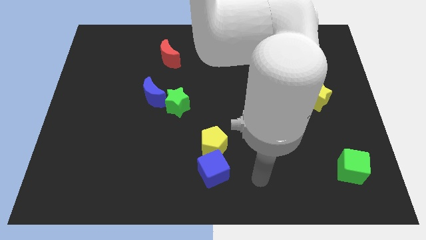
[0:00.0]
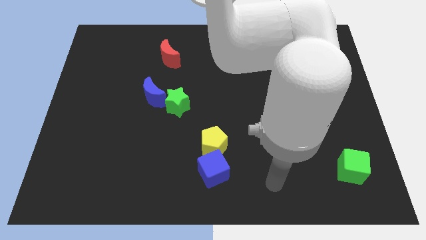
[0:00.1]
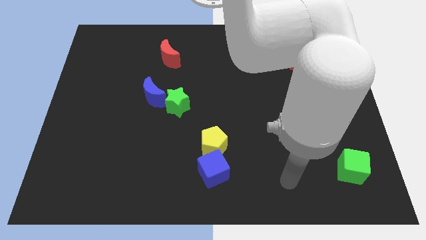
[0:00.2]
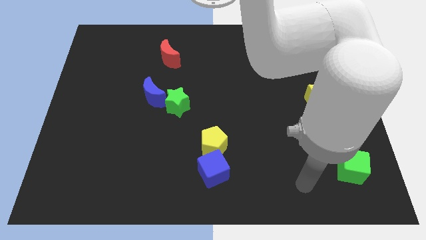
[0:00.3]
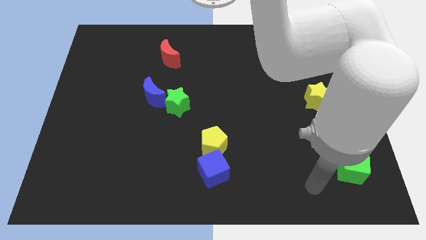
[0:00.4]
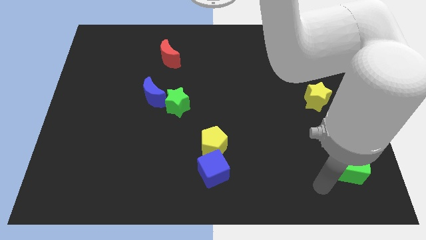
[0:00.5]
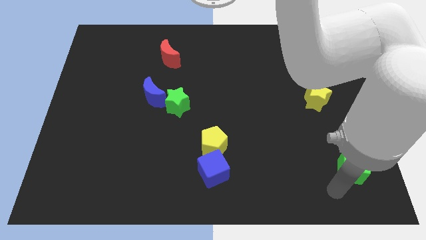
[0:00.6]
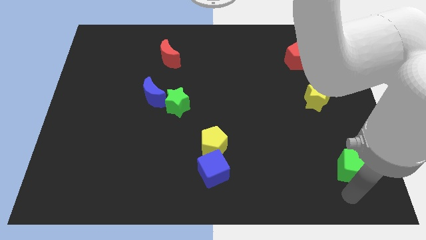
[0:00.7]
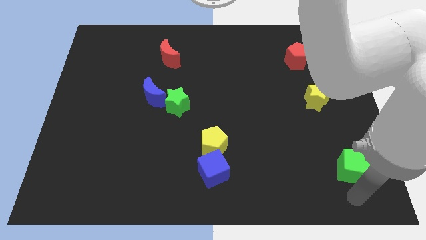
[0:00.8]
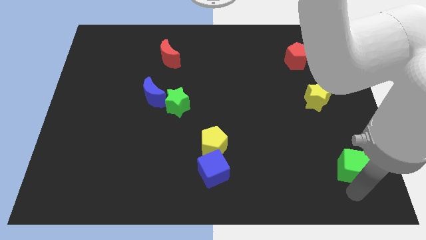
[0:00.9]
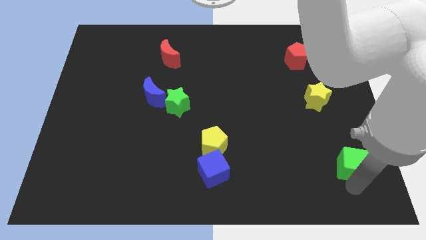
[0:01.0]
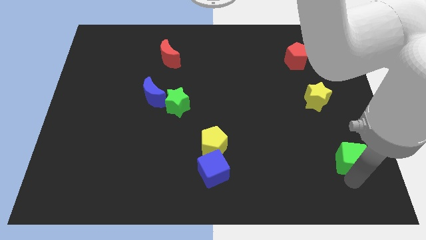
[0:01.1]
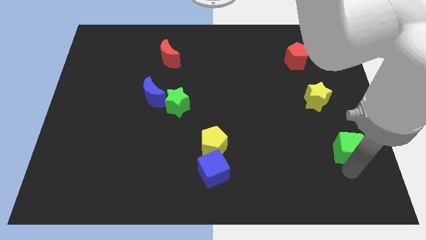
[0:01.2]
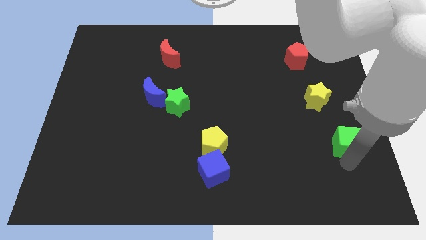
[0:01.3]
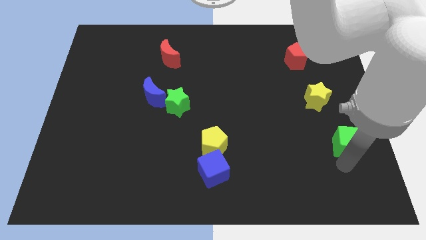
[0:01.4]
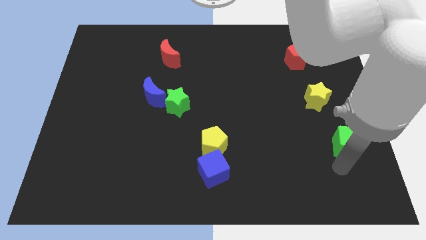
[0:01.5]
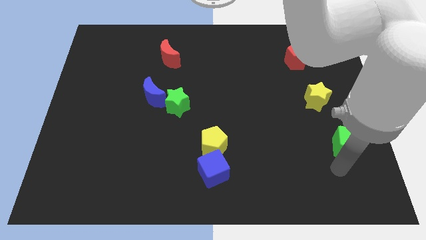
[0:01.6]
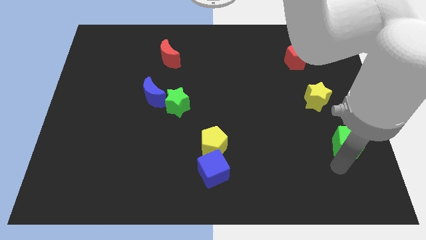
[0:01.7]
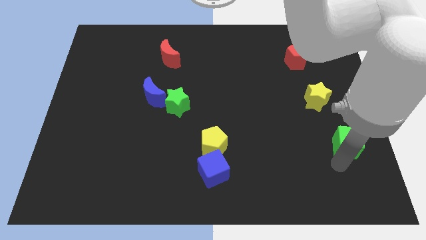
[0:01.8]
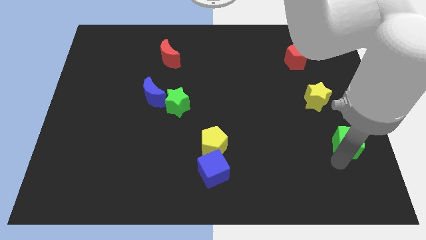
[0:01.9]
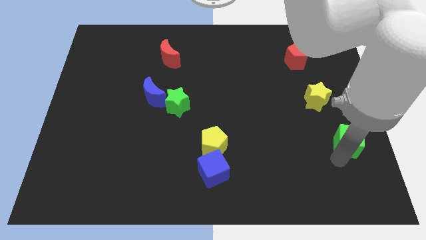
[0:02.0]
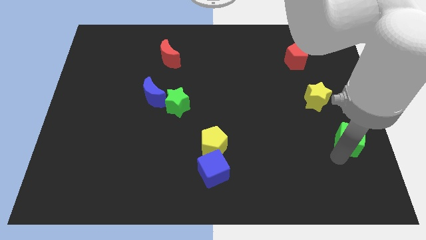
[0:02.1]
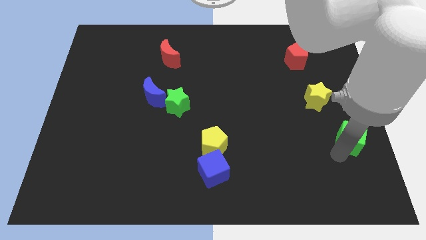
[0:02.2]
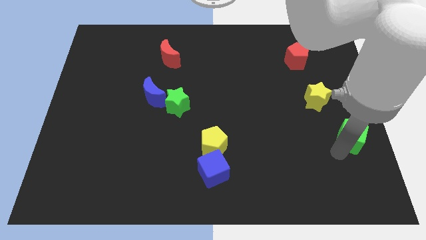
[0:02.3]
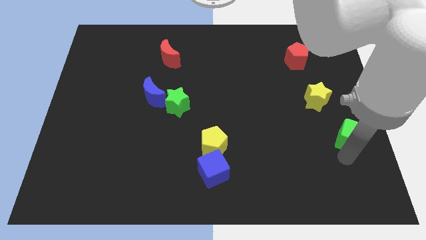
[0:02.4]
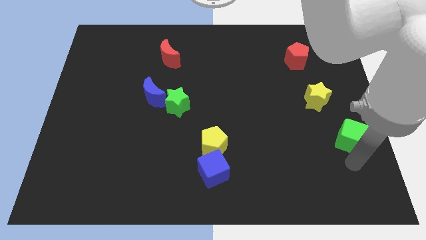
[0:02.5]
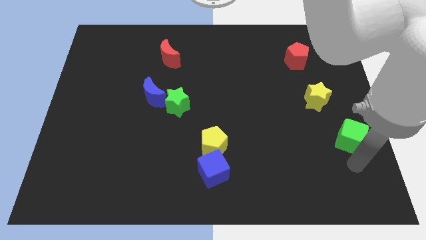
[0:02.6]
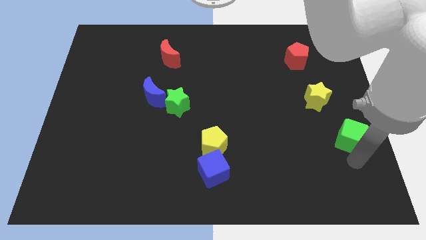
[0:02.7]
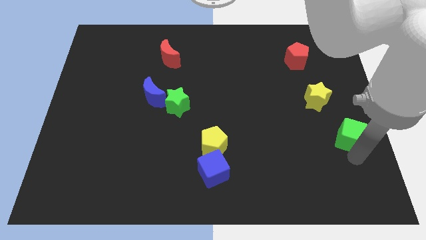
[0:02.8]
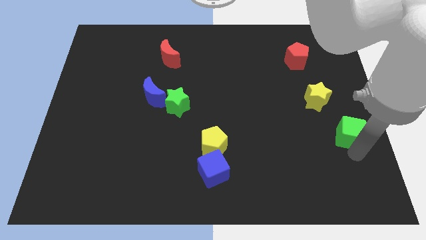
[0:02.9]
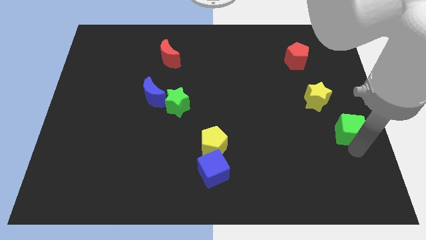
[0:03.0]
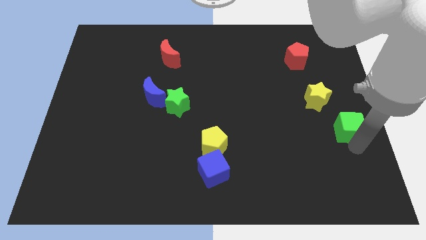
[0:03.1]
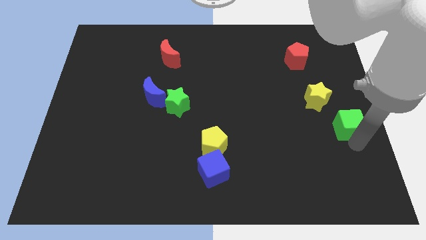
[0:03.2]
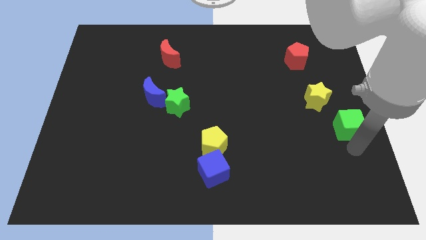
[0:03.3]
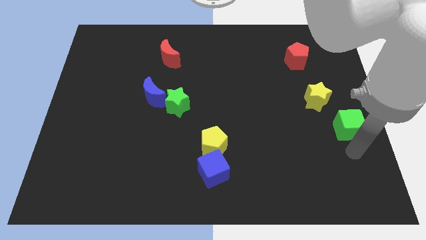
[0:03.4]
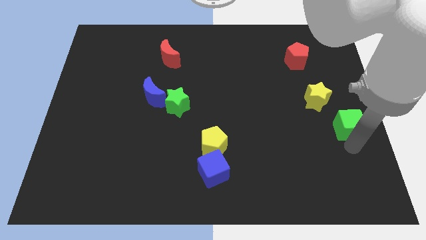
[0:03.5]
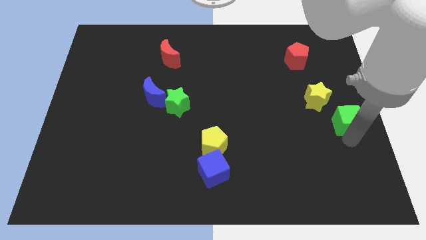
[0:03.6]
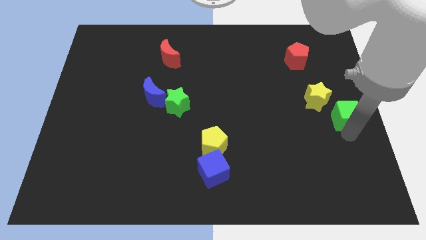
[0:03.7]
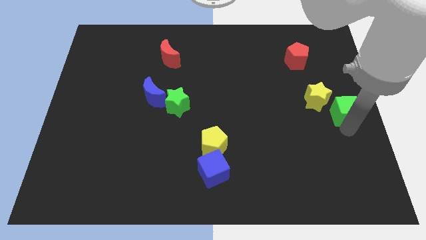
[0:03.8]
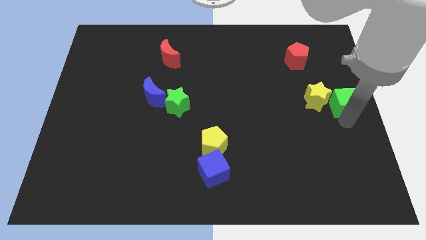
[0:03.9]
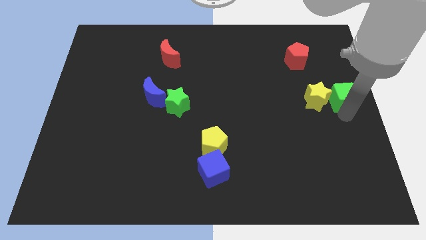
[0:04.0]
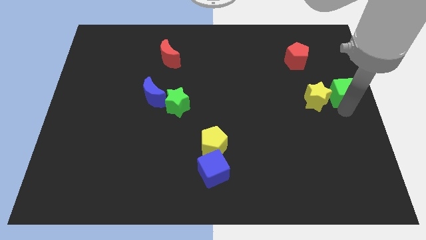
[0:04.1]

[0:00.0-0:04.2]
move the green cube upwards

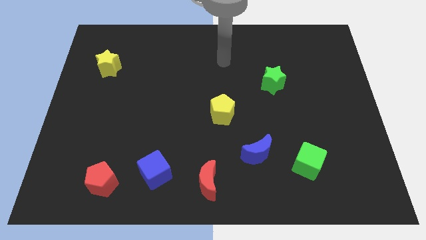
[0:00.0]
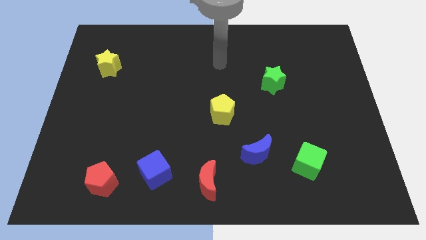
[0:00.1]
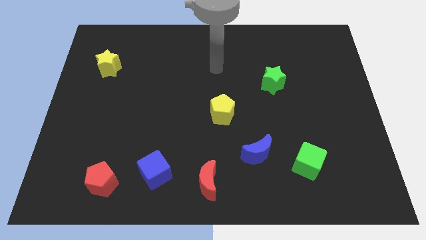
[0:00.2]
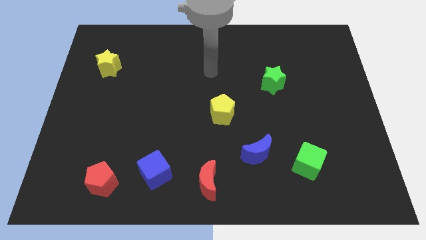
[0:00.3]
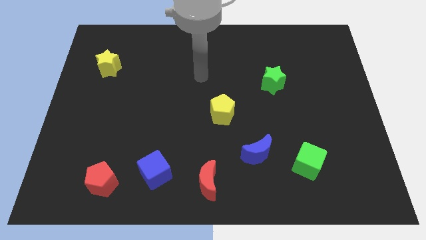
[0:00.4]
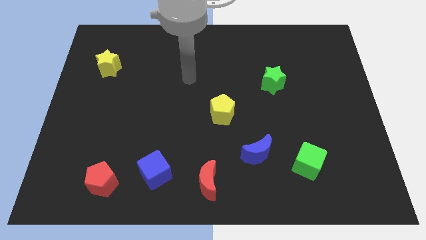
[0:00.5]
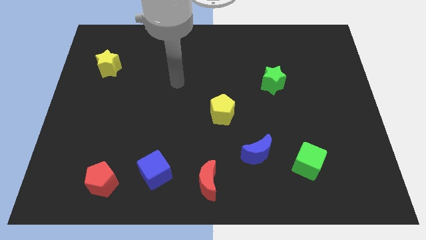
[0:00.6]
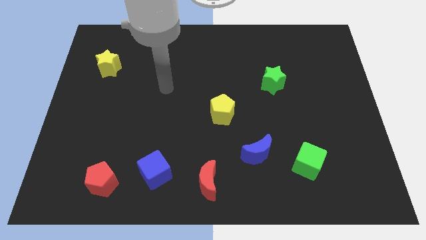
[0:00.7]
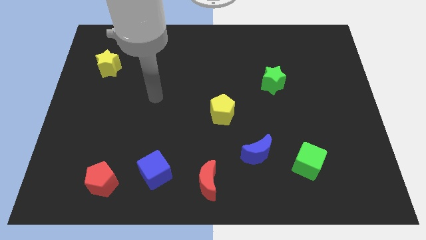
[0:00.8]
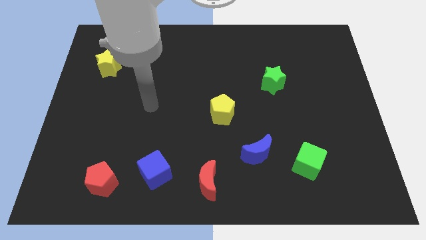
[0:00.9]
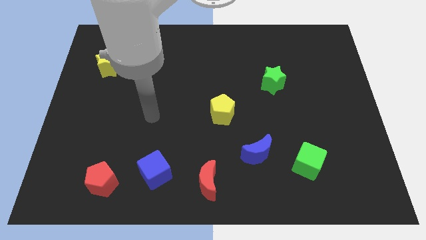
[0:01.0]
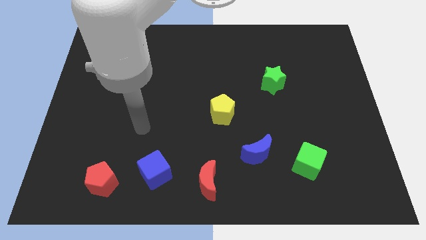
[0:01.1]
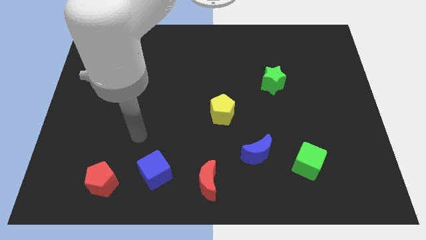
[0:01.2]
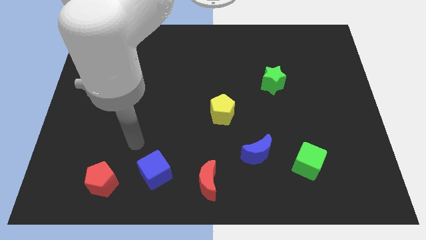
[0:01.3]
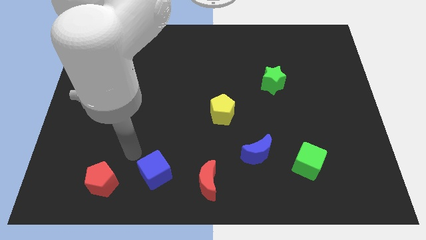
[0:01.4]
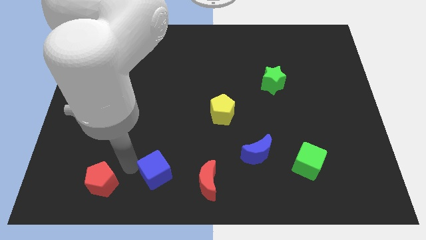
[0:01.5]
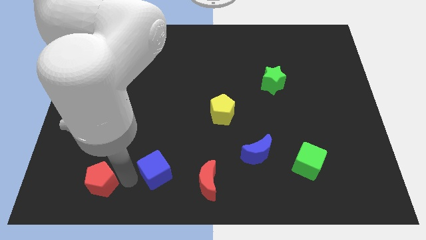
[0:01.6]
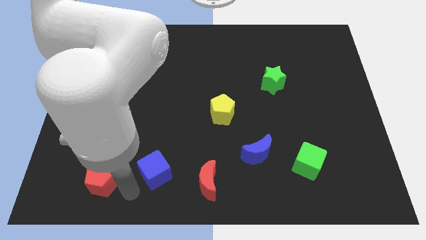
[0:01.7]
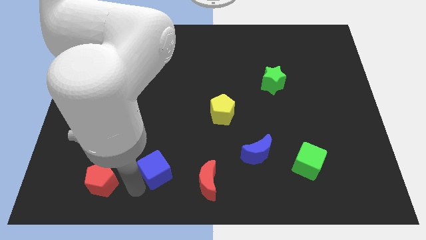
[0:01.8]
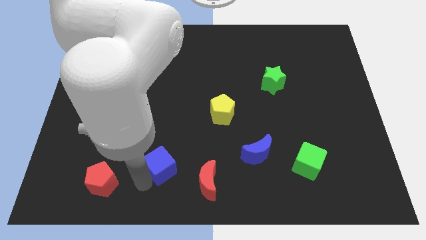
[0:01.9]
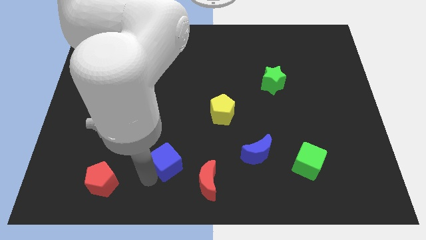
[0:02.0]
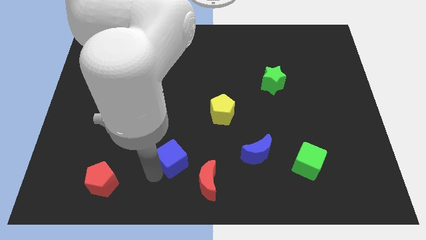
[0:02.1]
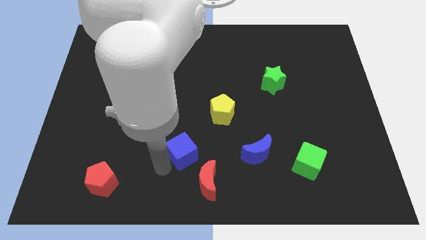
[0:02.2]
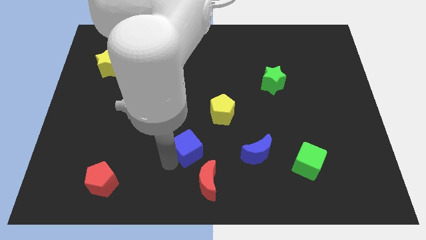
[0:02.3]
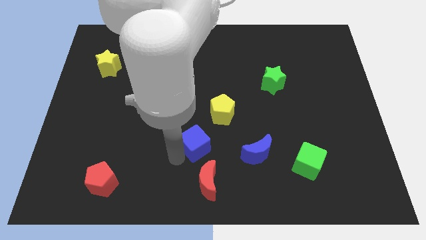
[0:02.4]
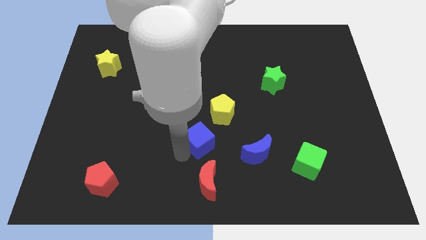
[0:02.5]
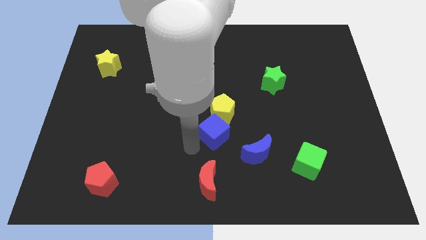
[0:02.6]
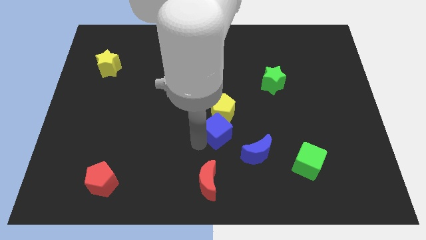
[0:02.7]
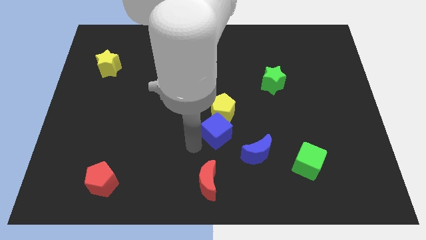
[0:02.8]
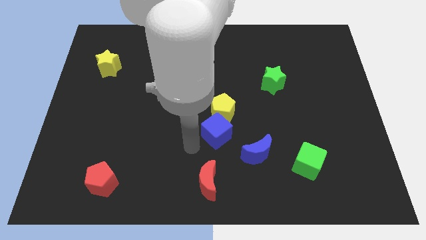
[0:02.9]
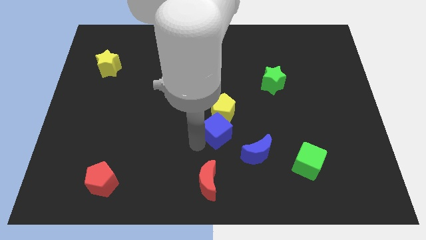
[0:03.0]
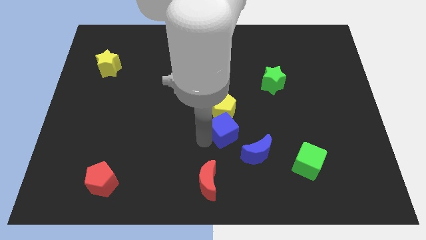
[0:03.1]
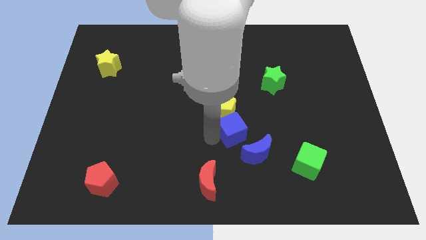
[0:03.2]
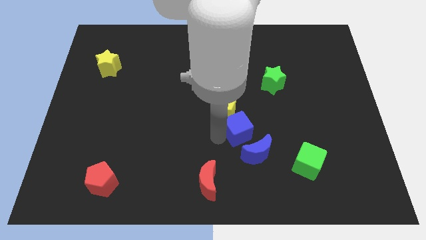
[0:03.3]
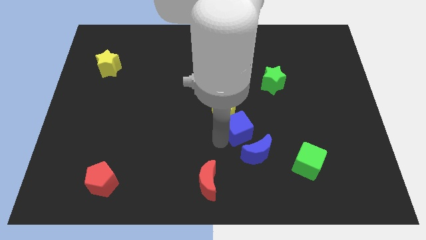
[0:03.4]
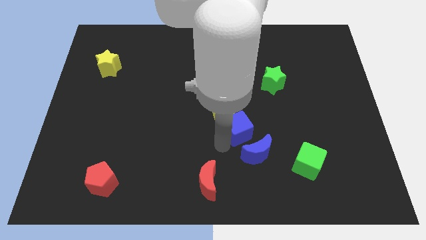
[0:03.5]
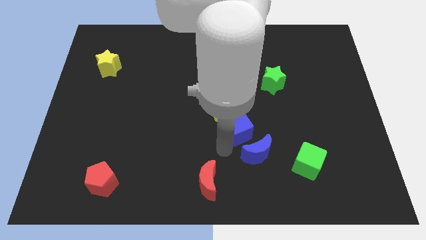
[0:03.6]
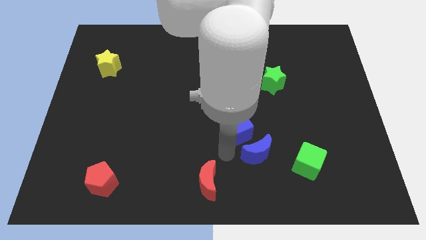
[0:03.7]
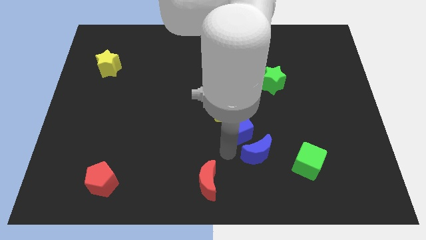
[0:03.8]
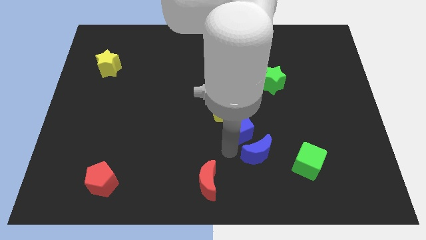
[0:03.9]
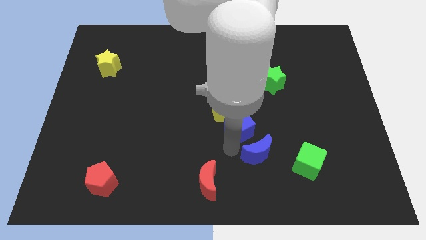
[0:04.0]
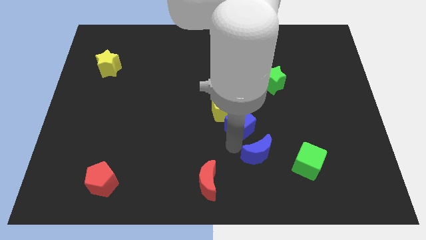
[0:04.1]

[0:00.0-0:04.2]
move the blue cube diagonally upwards and to the right

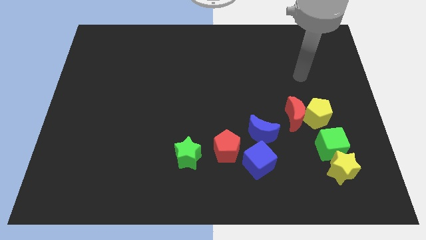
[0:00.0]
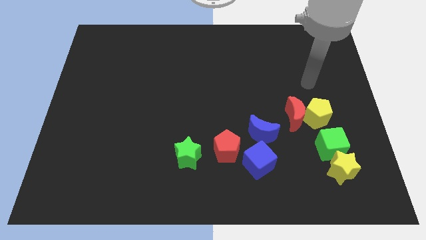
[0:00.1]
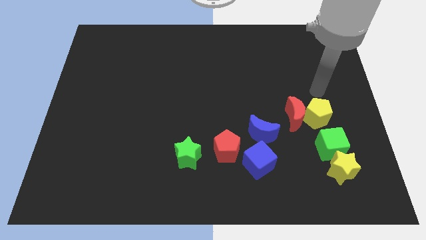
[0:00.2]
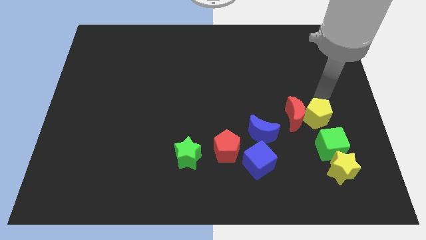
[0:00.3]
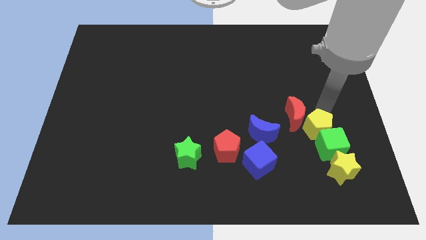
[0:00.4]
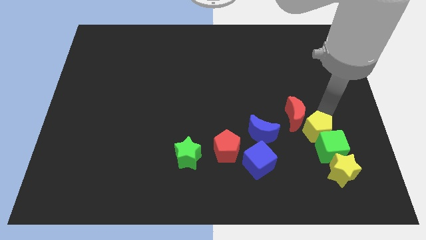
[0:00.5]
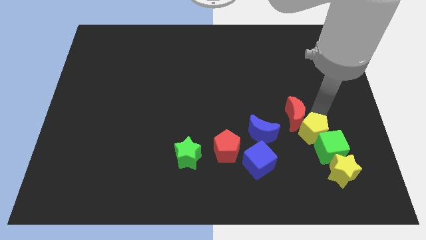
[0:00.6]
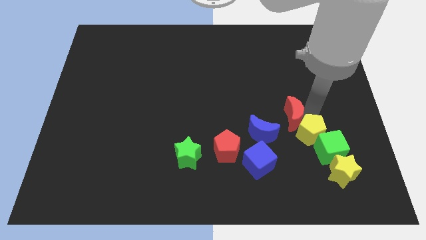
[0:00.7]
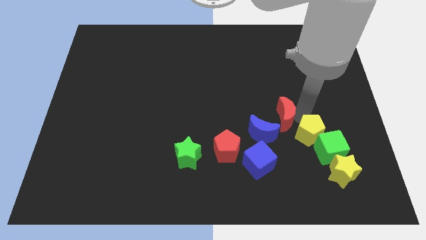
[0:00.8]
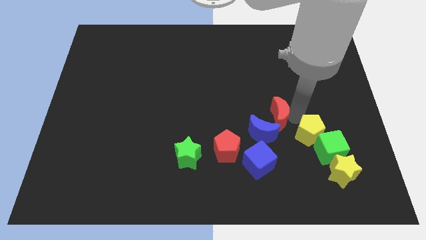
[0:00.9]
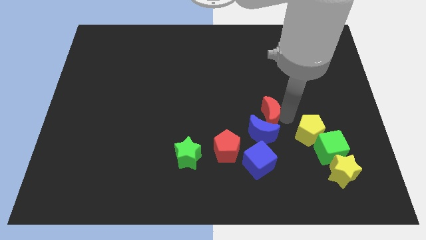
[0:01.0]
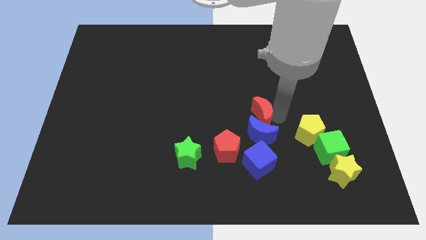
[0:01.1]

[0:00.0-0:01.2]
push the red moon a little to the left
